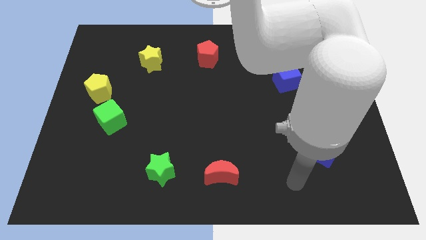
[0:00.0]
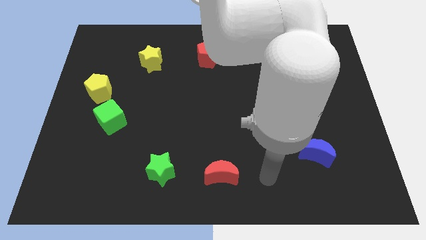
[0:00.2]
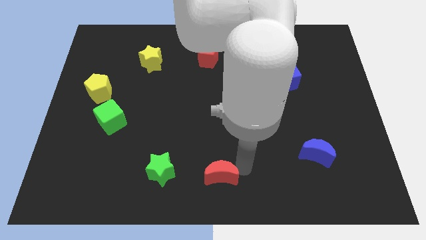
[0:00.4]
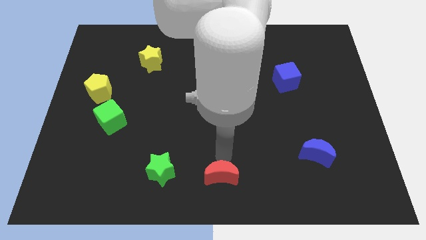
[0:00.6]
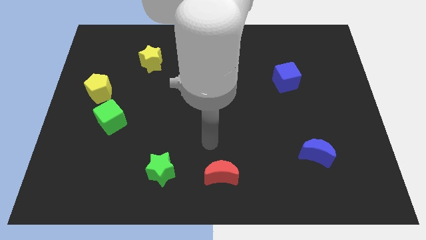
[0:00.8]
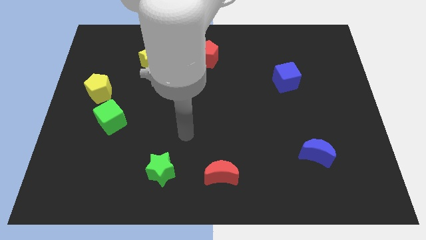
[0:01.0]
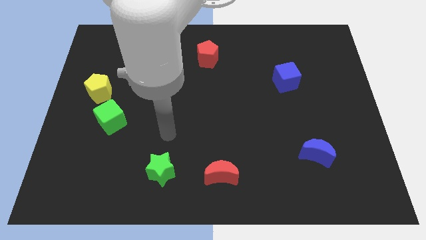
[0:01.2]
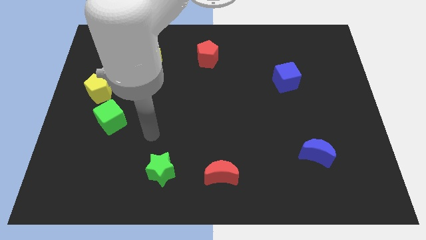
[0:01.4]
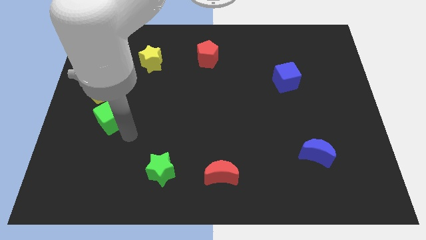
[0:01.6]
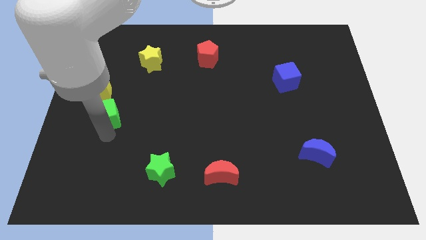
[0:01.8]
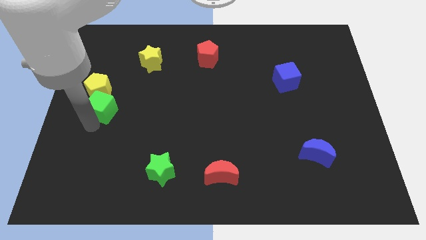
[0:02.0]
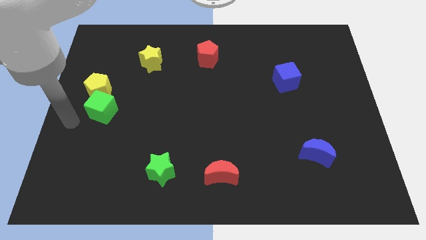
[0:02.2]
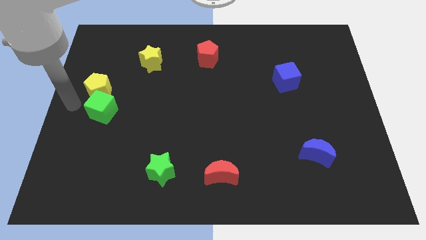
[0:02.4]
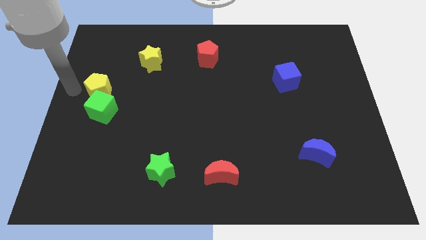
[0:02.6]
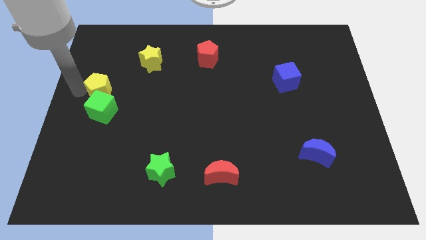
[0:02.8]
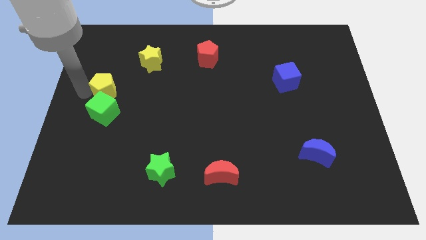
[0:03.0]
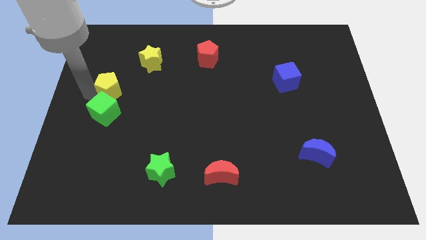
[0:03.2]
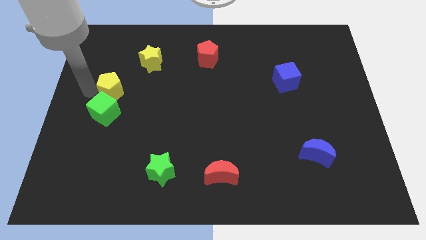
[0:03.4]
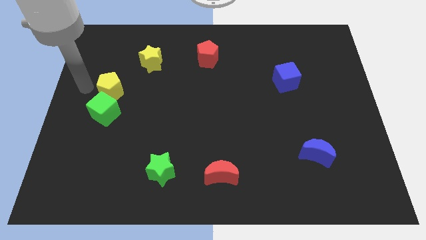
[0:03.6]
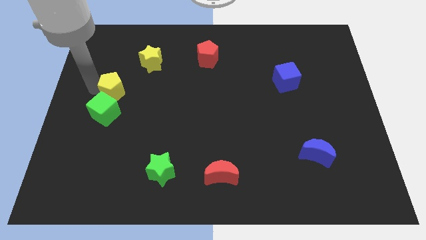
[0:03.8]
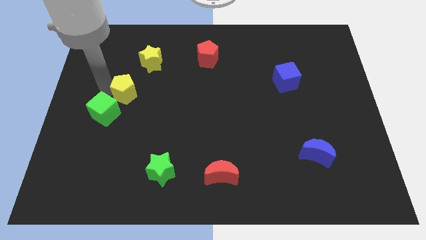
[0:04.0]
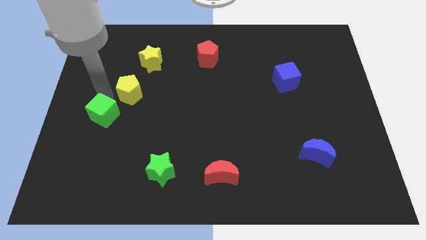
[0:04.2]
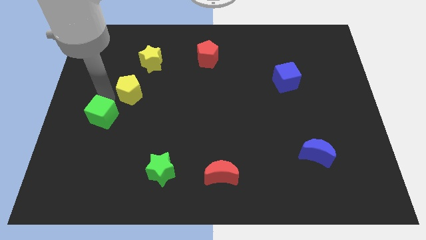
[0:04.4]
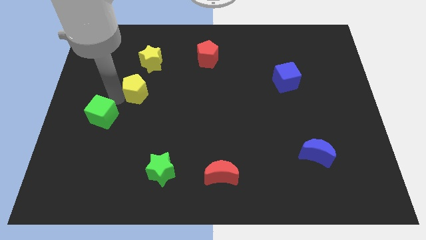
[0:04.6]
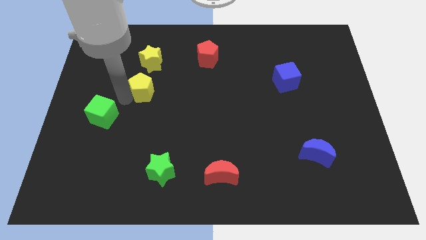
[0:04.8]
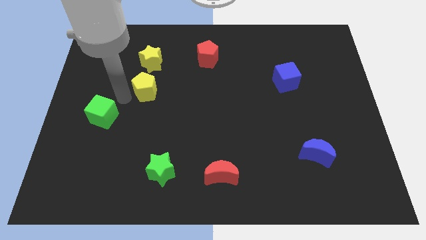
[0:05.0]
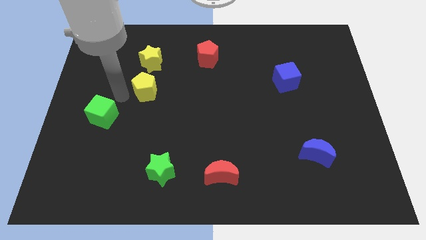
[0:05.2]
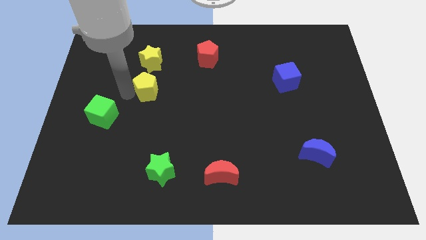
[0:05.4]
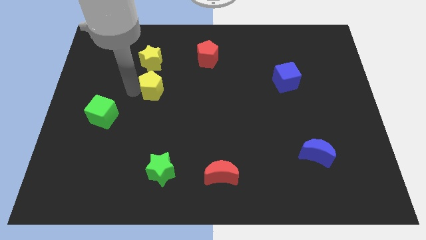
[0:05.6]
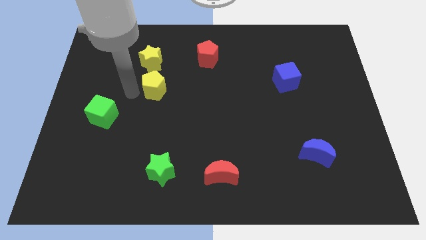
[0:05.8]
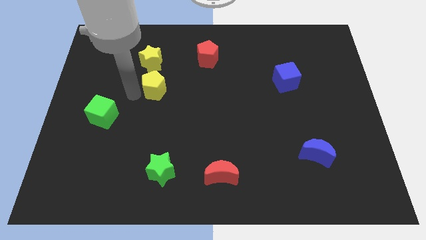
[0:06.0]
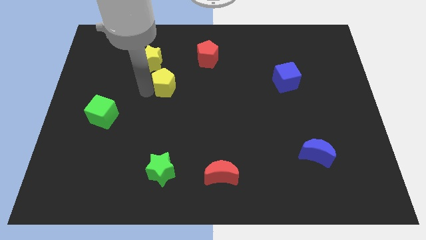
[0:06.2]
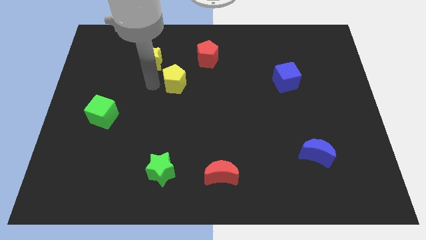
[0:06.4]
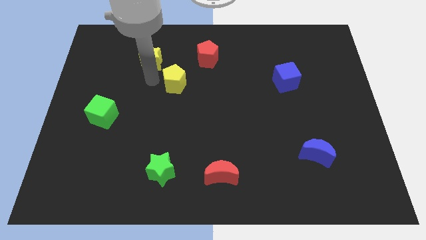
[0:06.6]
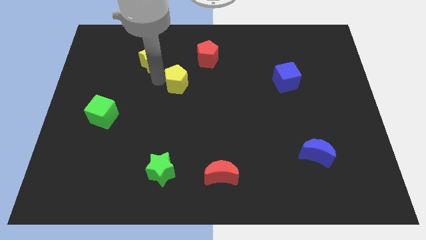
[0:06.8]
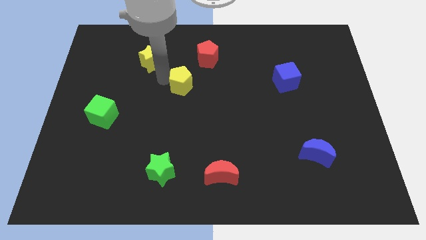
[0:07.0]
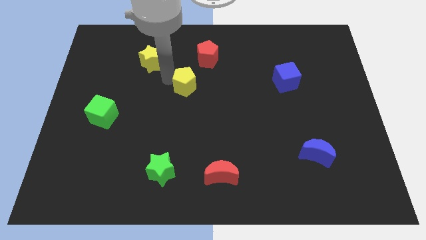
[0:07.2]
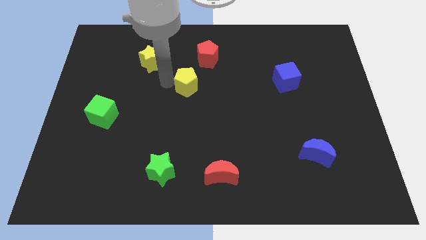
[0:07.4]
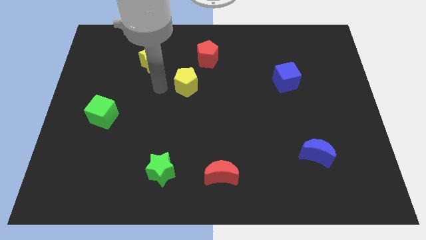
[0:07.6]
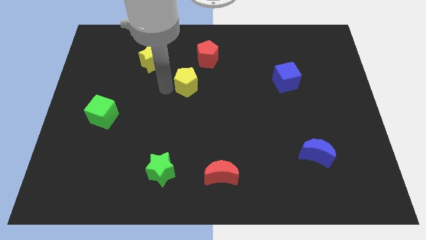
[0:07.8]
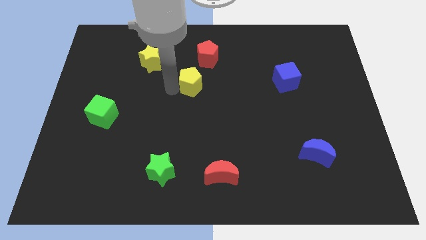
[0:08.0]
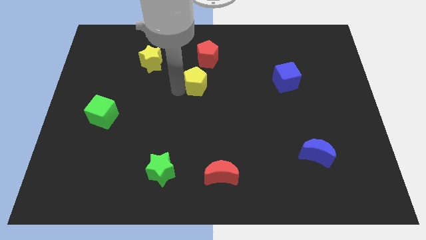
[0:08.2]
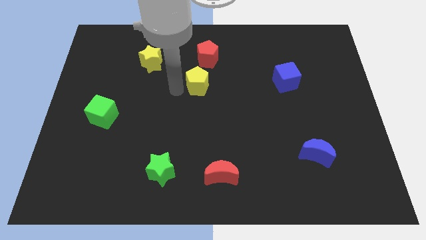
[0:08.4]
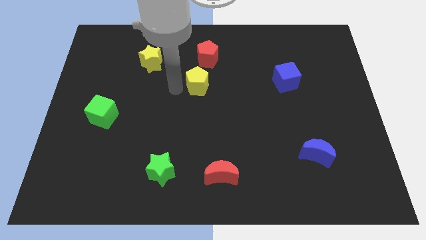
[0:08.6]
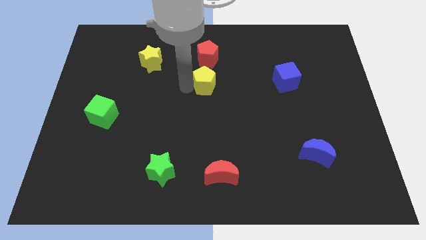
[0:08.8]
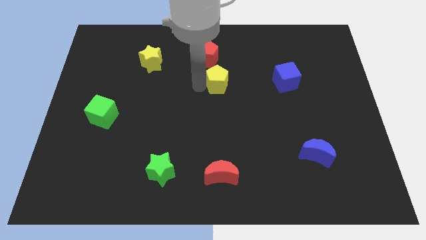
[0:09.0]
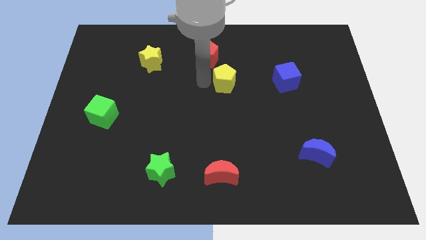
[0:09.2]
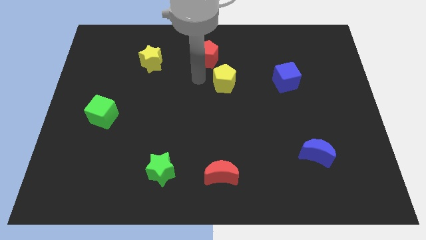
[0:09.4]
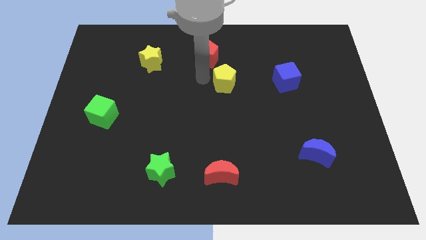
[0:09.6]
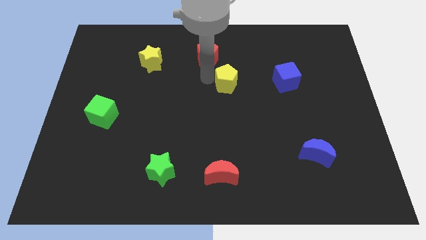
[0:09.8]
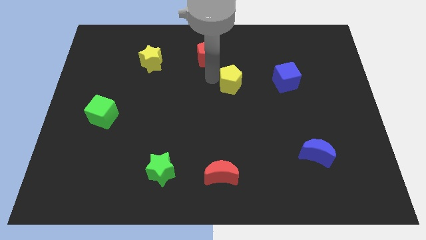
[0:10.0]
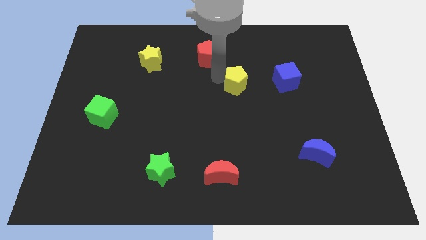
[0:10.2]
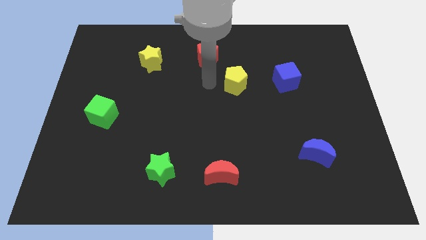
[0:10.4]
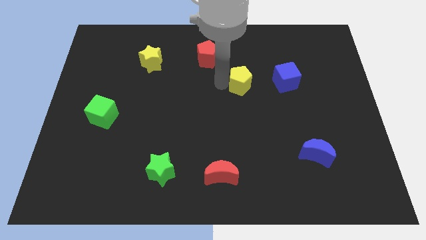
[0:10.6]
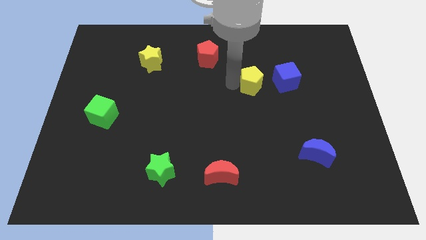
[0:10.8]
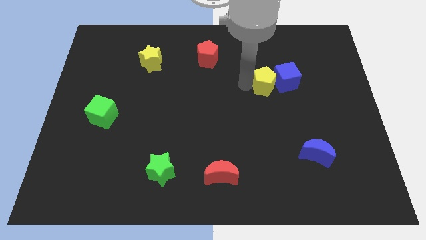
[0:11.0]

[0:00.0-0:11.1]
push the yellow pentagon to the blue cube

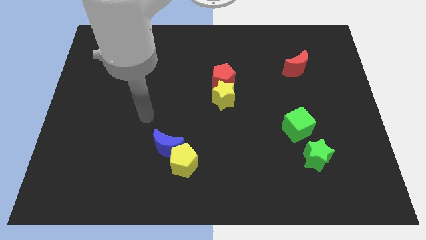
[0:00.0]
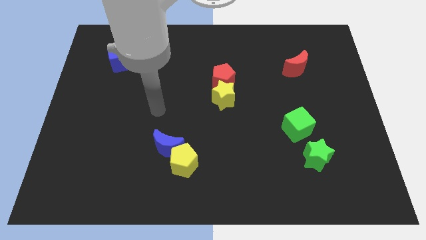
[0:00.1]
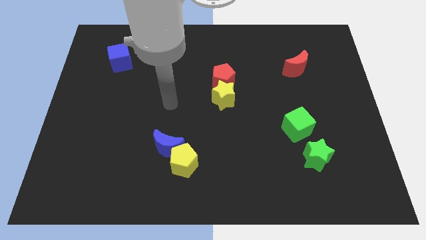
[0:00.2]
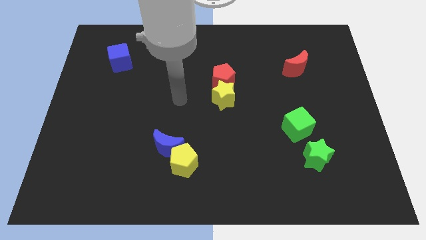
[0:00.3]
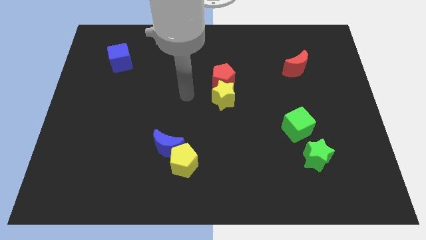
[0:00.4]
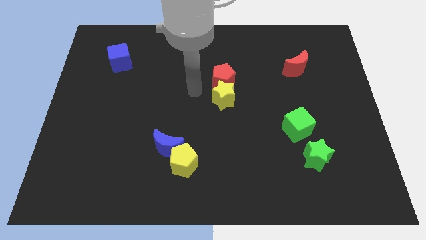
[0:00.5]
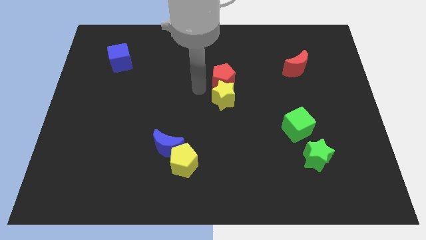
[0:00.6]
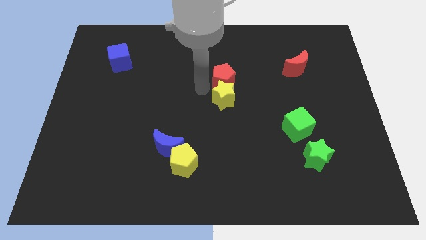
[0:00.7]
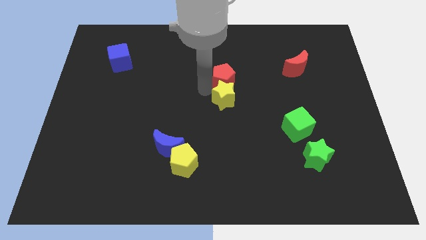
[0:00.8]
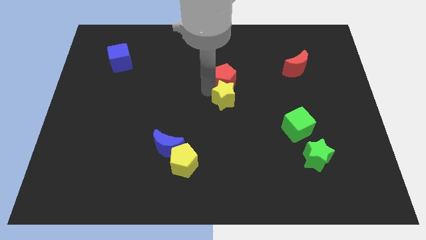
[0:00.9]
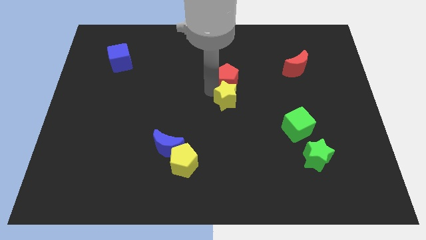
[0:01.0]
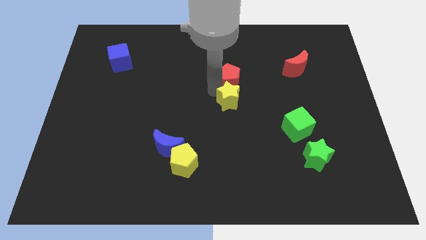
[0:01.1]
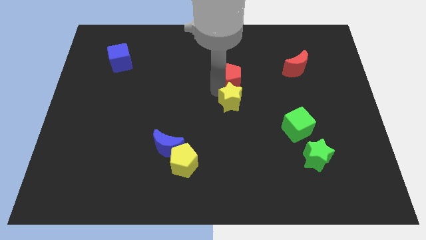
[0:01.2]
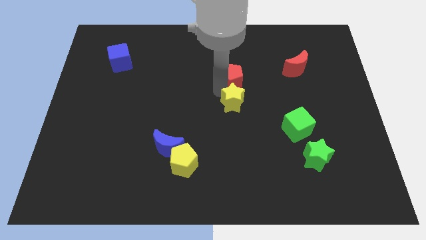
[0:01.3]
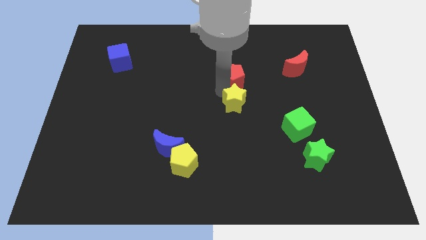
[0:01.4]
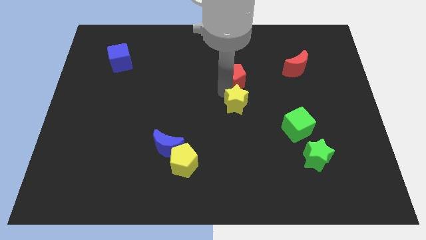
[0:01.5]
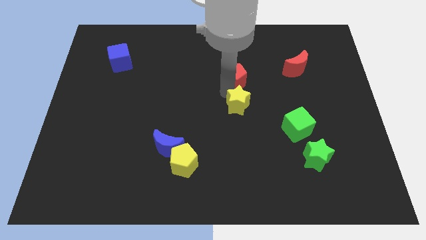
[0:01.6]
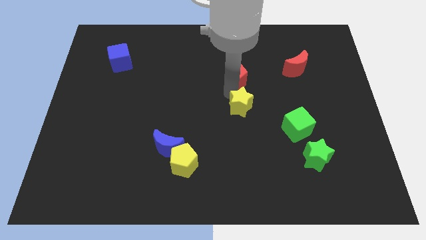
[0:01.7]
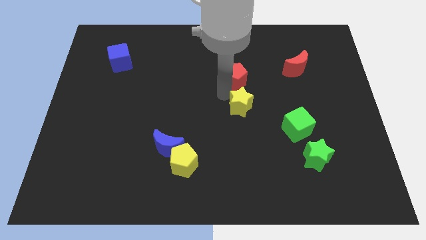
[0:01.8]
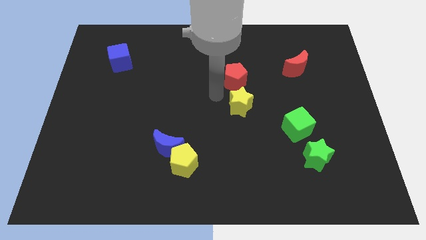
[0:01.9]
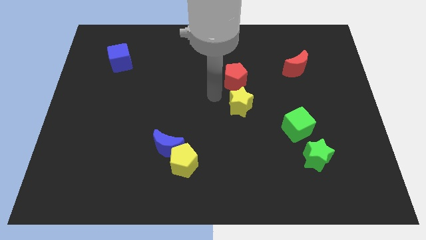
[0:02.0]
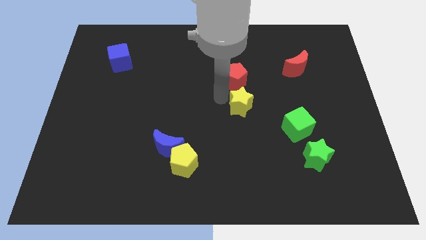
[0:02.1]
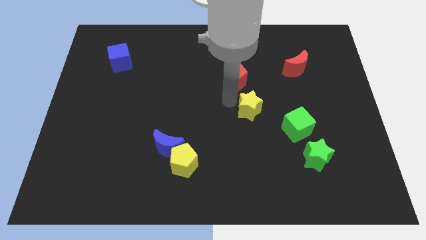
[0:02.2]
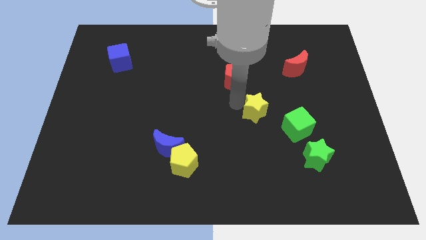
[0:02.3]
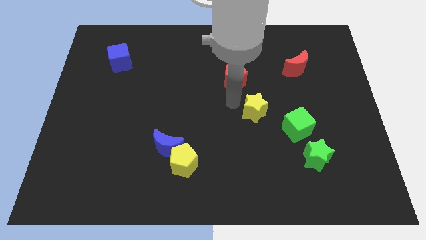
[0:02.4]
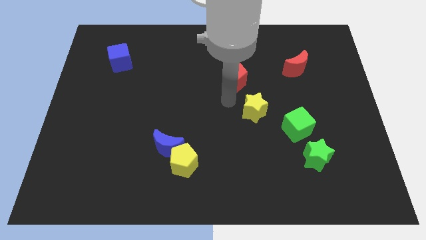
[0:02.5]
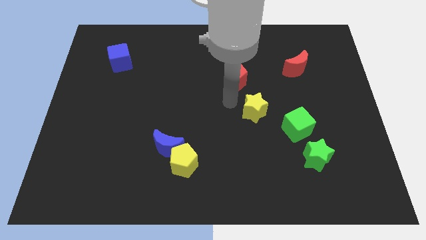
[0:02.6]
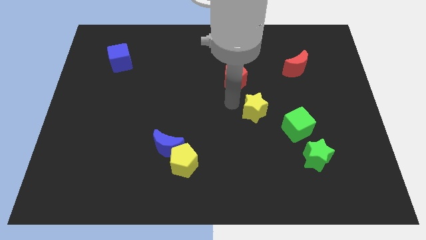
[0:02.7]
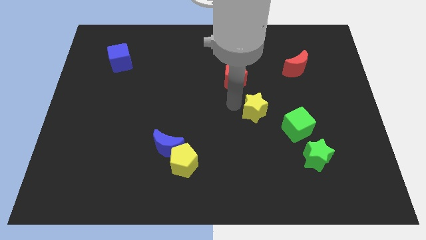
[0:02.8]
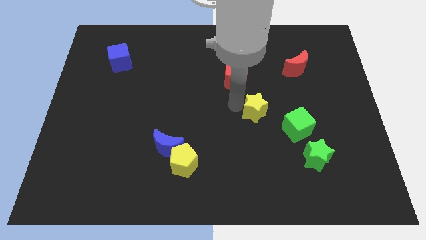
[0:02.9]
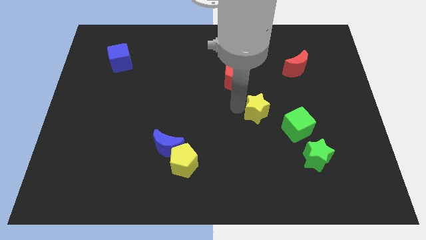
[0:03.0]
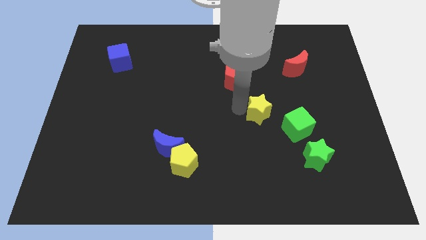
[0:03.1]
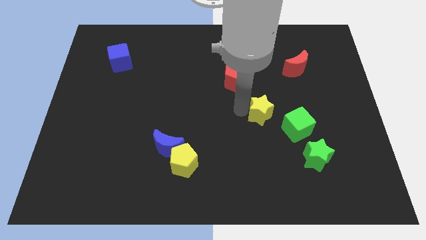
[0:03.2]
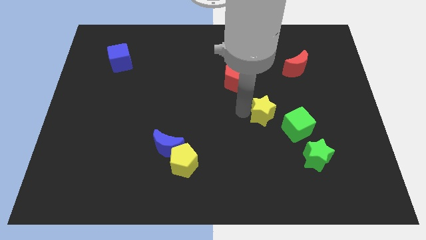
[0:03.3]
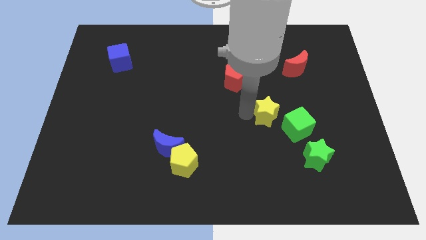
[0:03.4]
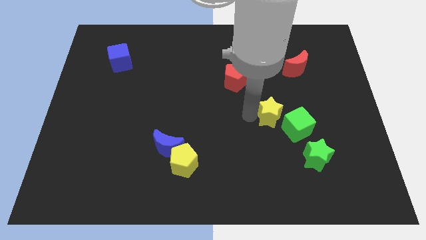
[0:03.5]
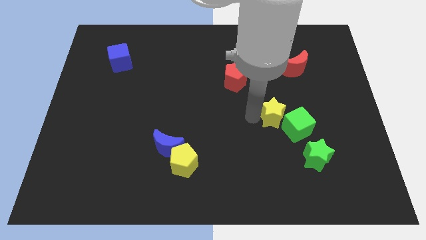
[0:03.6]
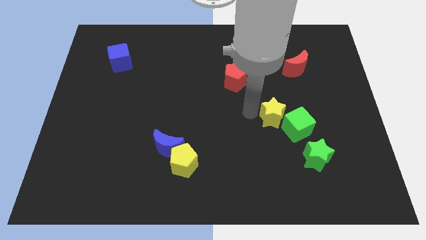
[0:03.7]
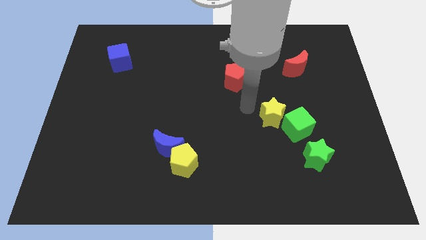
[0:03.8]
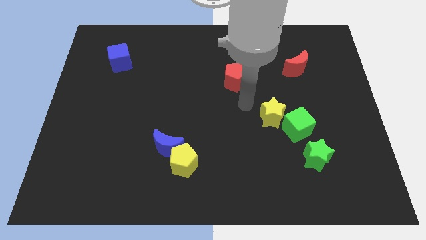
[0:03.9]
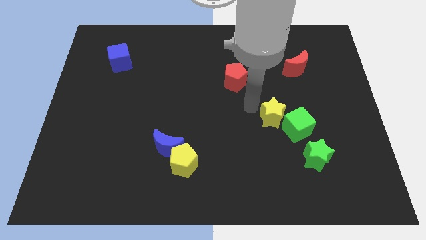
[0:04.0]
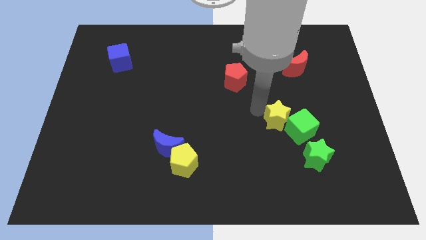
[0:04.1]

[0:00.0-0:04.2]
push the yellow star next to the green cube
